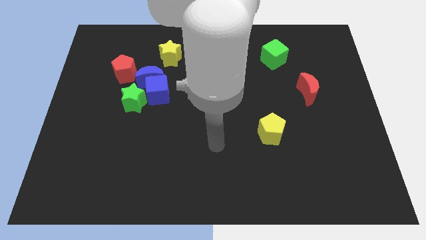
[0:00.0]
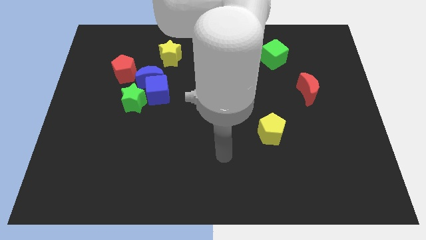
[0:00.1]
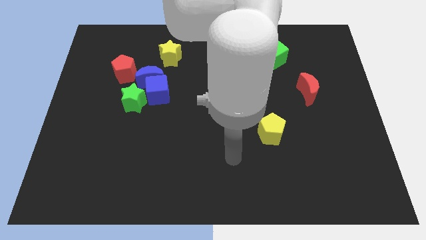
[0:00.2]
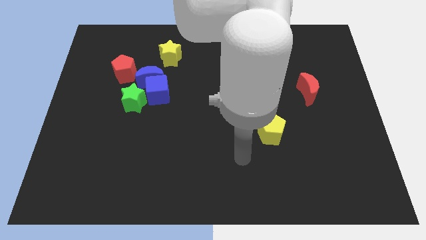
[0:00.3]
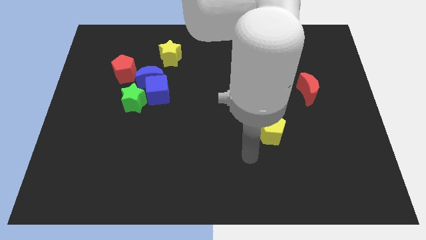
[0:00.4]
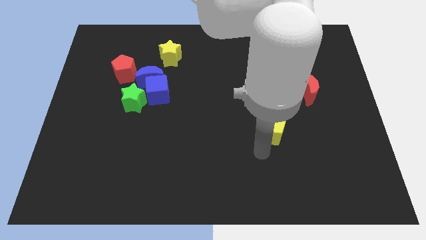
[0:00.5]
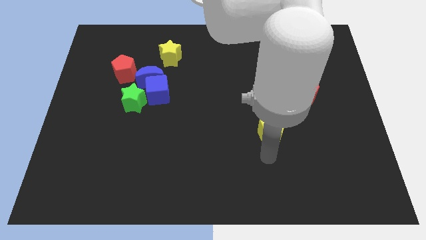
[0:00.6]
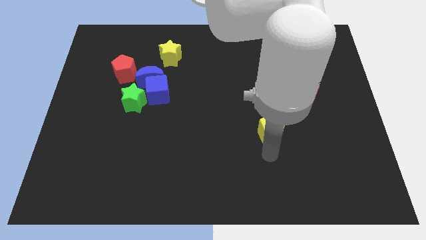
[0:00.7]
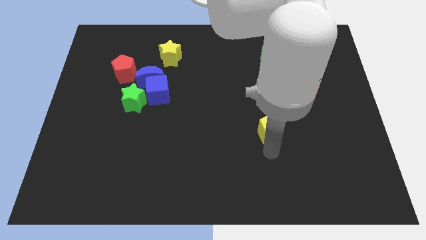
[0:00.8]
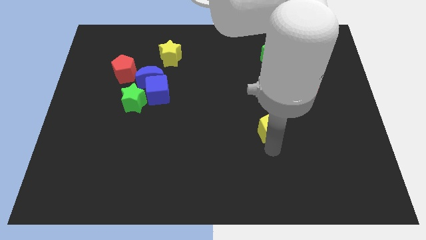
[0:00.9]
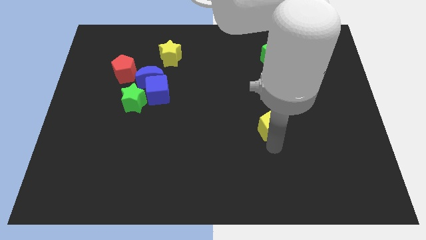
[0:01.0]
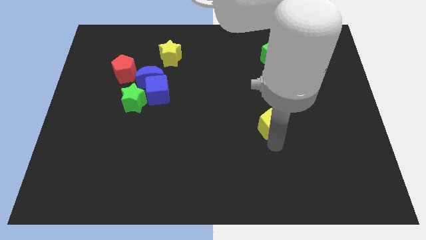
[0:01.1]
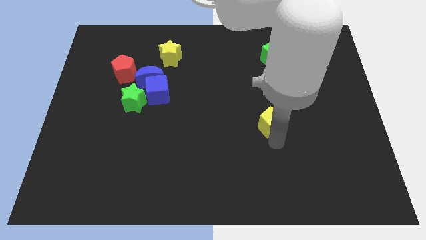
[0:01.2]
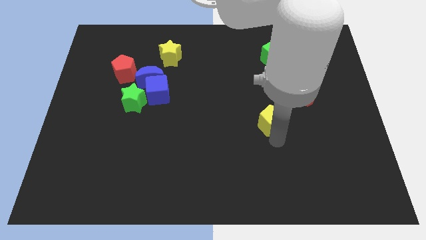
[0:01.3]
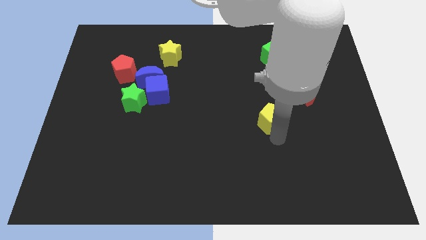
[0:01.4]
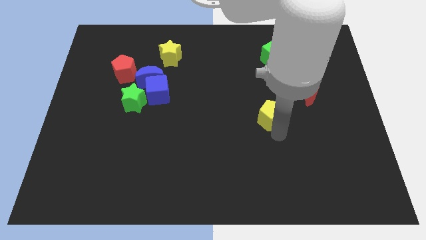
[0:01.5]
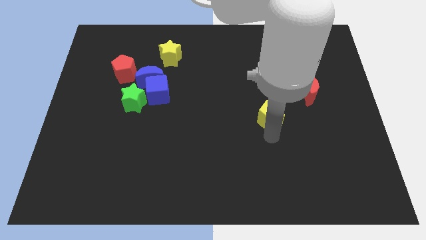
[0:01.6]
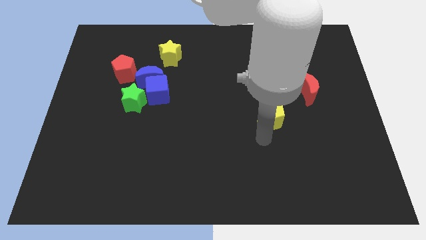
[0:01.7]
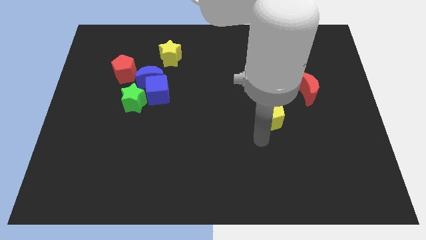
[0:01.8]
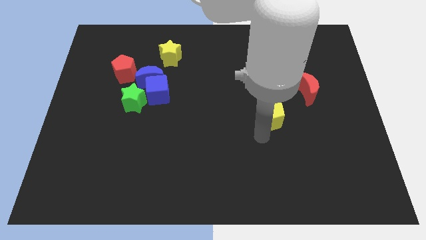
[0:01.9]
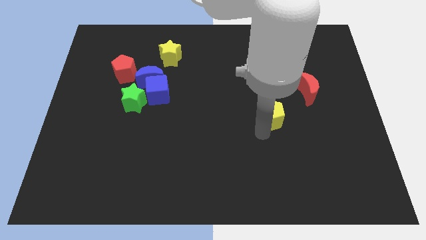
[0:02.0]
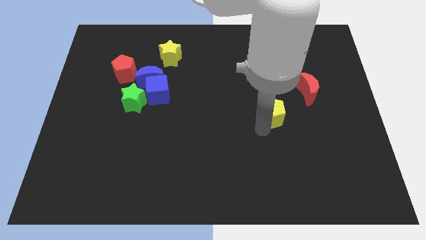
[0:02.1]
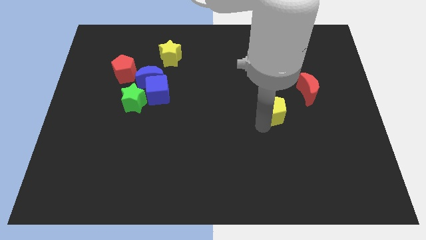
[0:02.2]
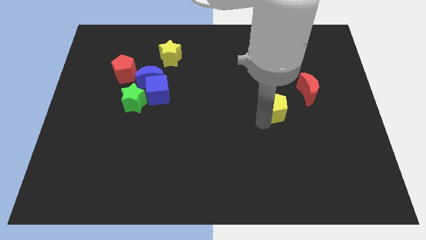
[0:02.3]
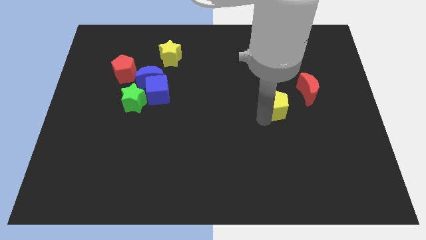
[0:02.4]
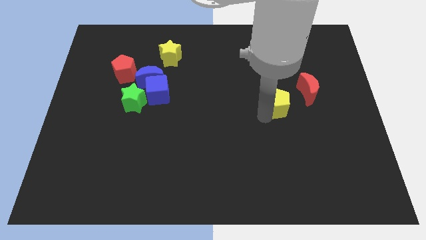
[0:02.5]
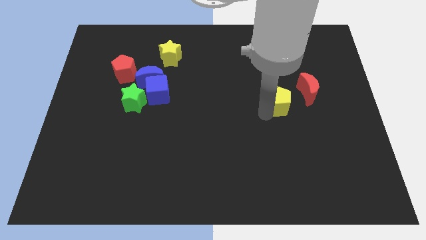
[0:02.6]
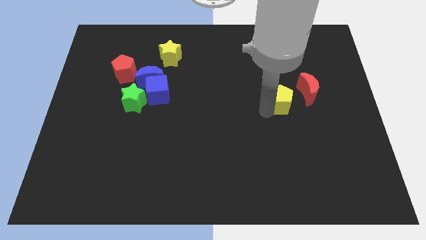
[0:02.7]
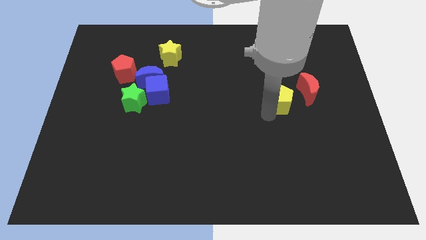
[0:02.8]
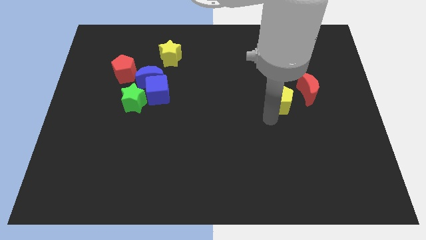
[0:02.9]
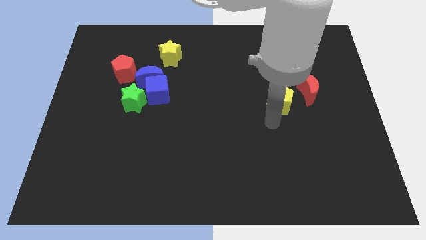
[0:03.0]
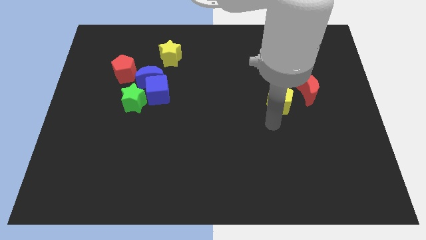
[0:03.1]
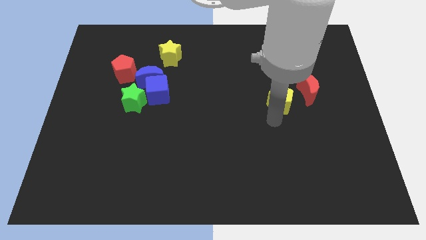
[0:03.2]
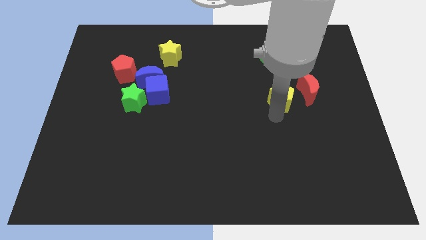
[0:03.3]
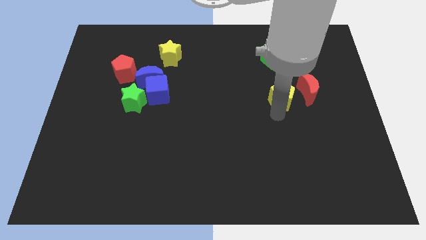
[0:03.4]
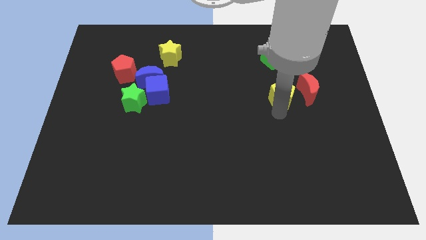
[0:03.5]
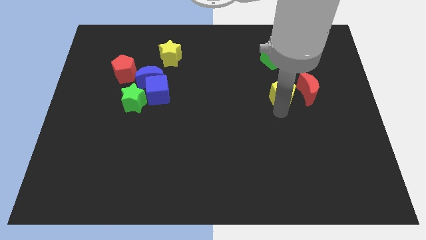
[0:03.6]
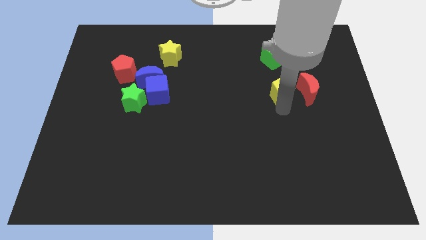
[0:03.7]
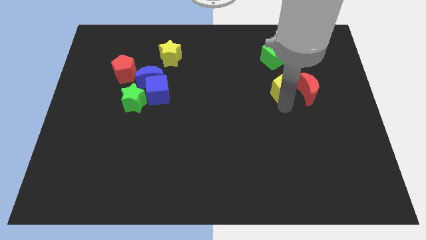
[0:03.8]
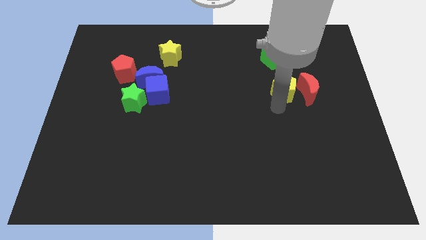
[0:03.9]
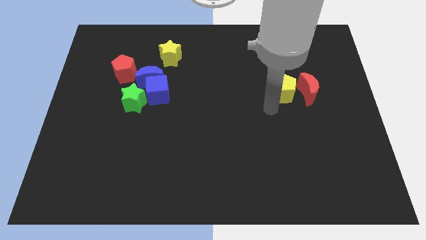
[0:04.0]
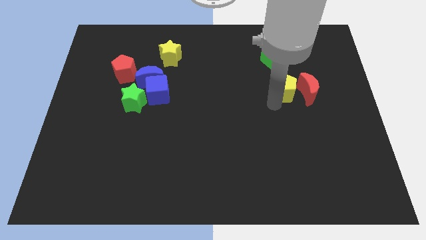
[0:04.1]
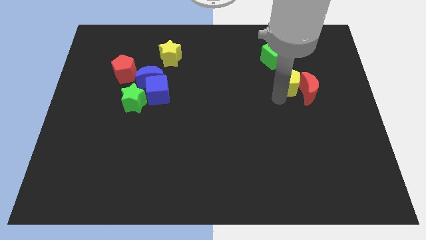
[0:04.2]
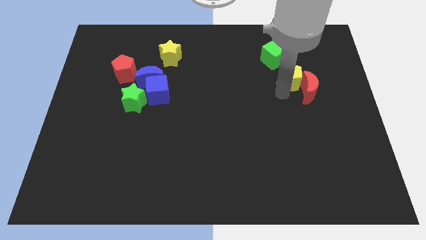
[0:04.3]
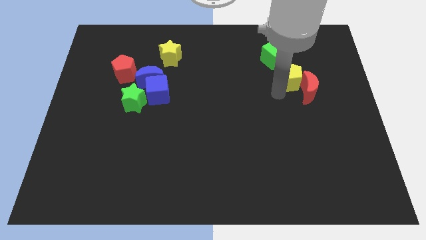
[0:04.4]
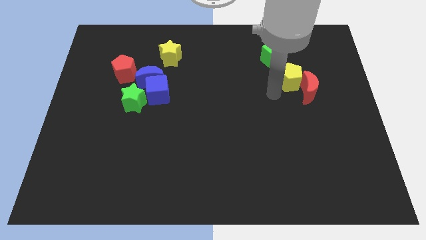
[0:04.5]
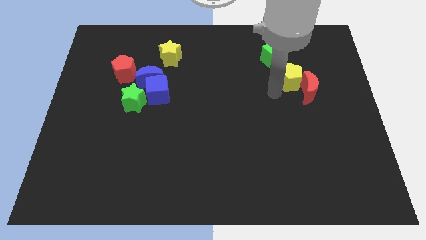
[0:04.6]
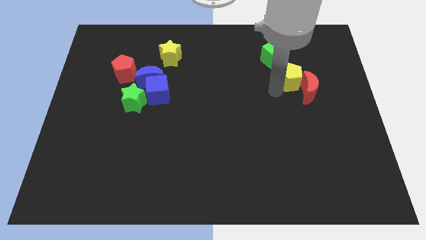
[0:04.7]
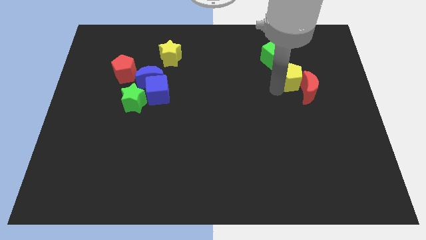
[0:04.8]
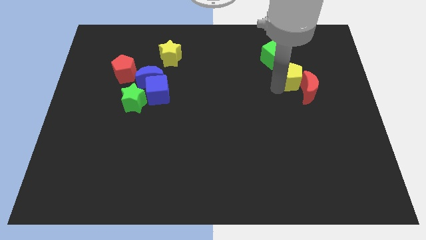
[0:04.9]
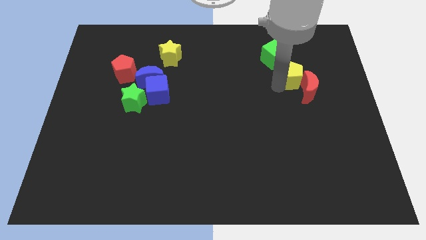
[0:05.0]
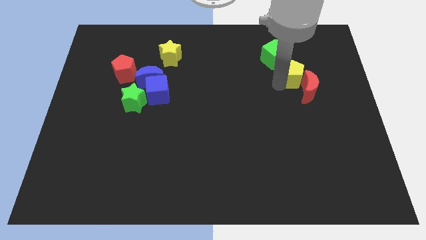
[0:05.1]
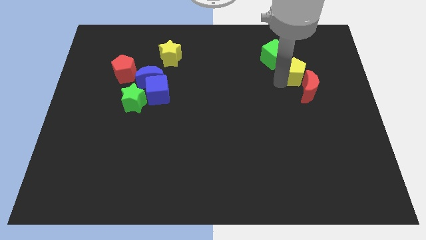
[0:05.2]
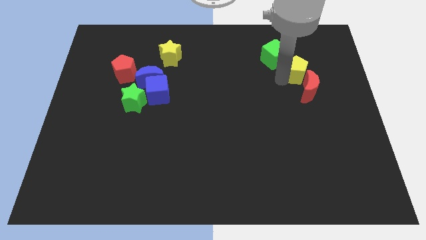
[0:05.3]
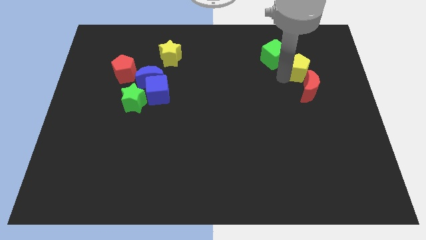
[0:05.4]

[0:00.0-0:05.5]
push the yellow pentagon right of the green cube

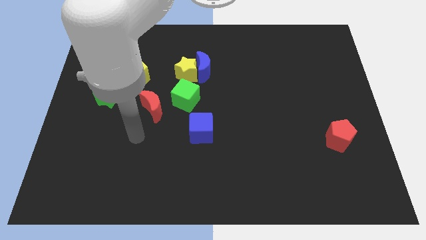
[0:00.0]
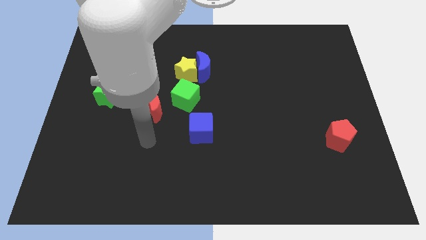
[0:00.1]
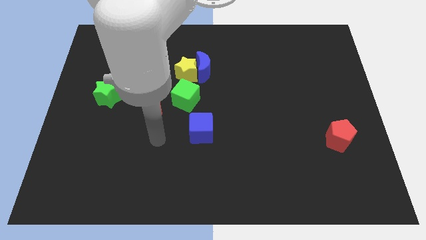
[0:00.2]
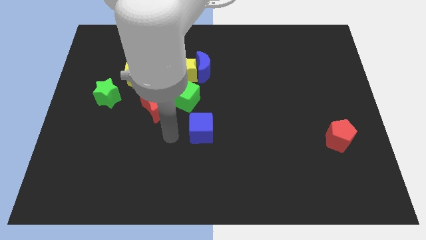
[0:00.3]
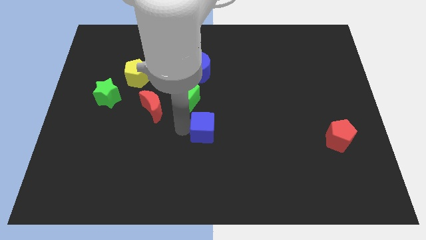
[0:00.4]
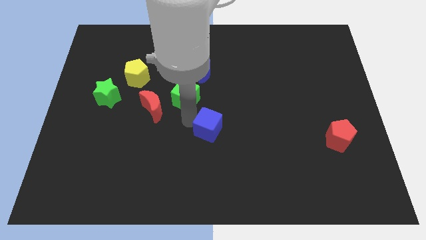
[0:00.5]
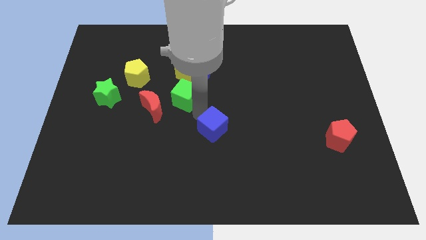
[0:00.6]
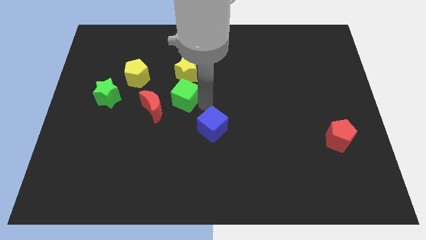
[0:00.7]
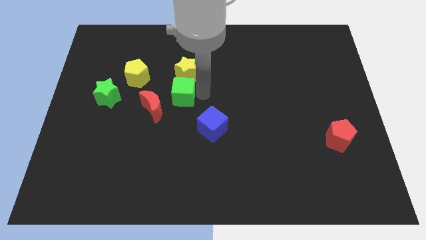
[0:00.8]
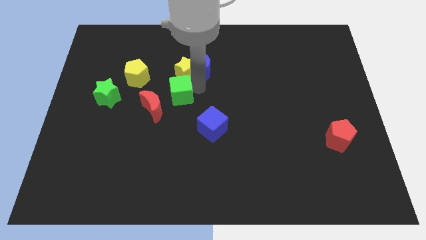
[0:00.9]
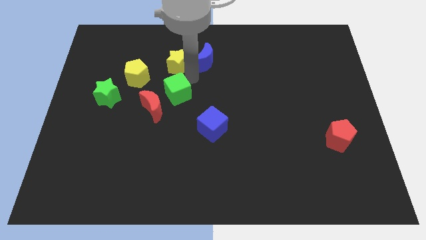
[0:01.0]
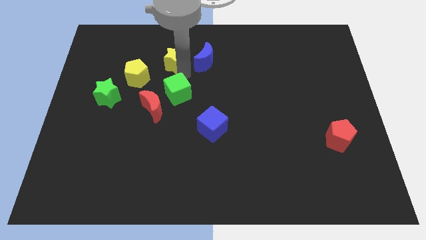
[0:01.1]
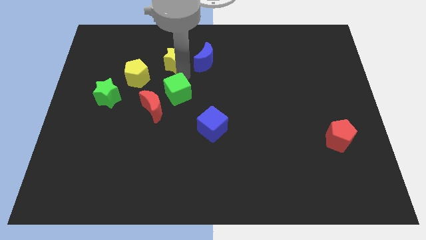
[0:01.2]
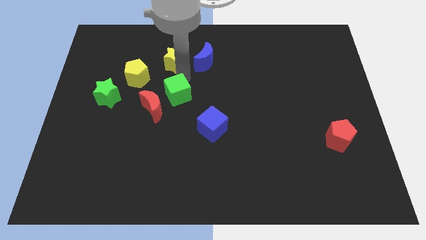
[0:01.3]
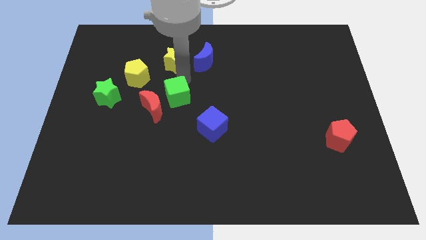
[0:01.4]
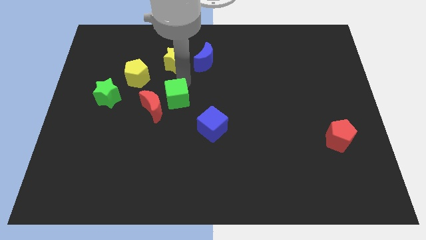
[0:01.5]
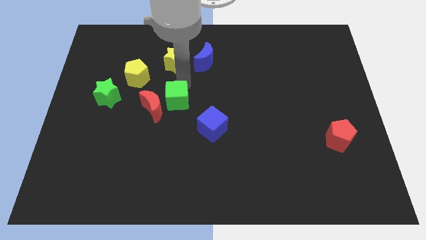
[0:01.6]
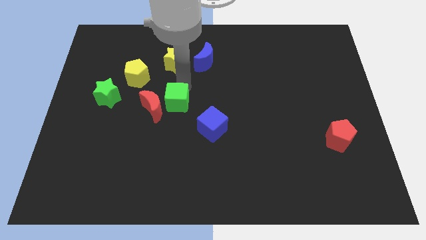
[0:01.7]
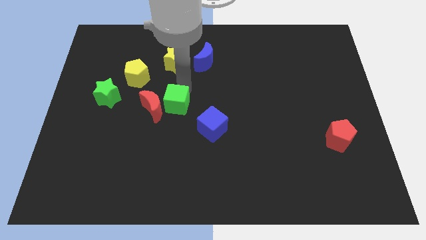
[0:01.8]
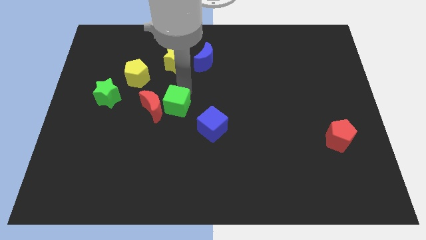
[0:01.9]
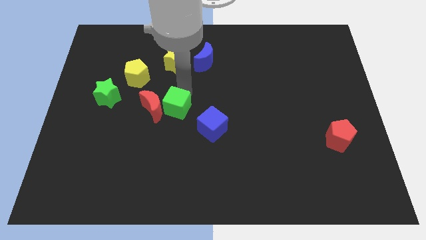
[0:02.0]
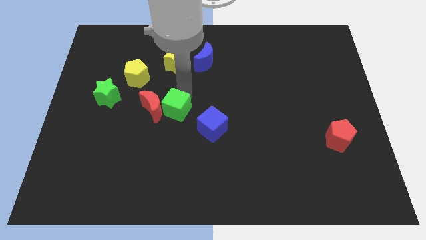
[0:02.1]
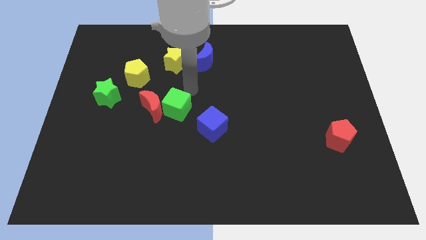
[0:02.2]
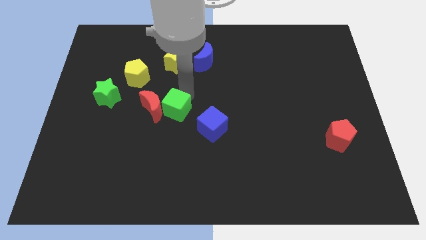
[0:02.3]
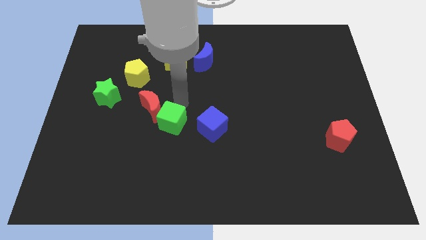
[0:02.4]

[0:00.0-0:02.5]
push the green cube to the bottom side of the red moon
